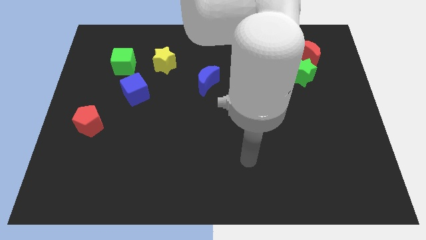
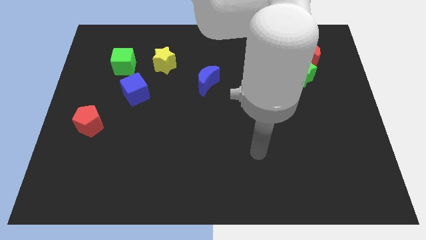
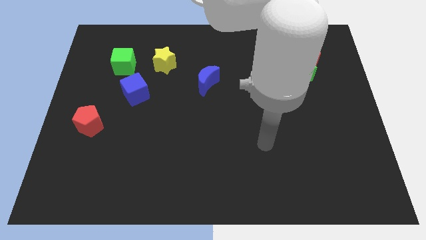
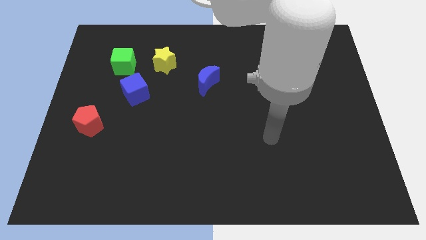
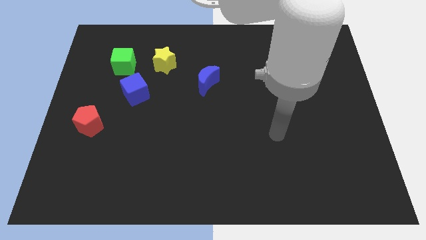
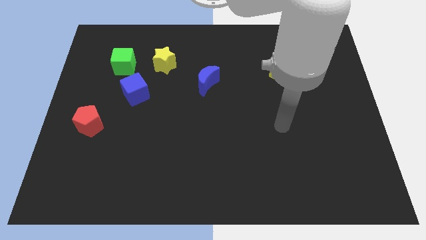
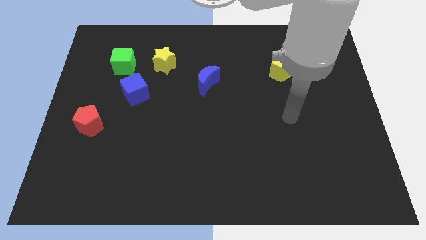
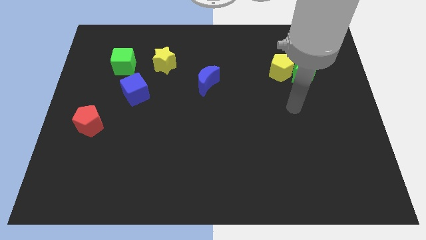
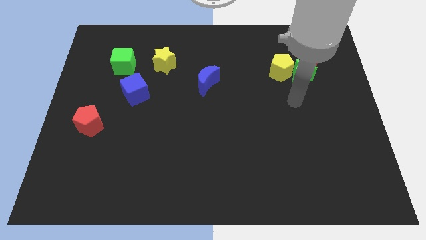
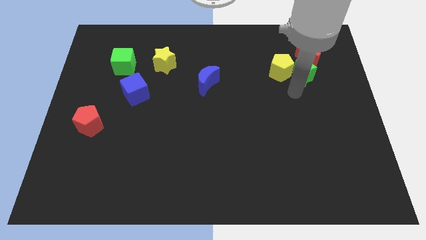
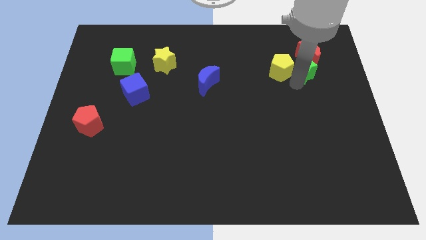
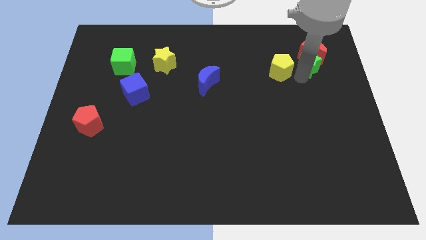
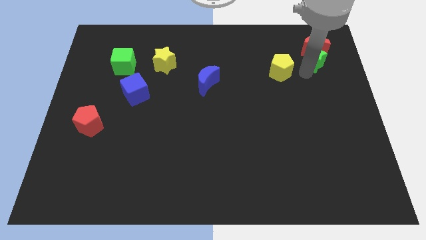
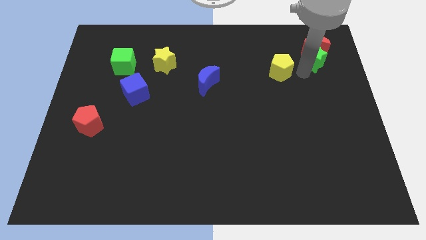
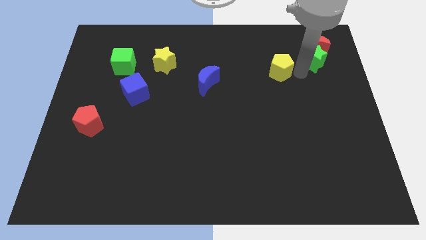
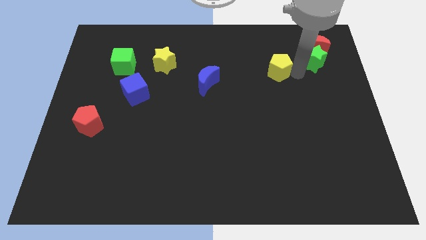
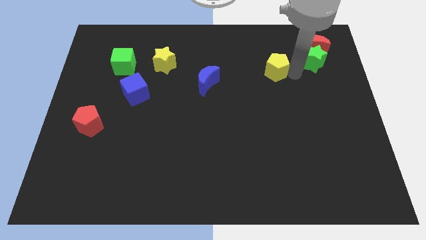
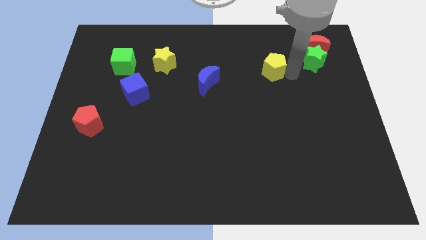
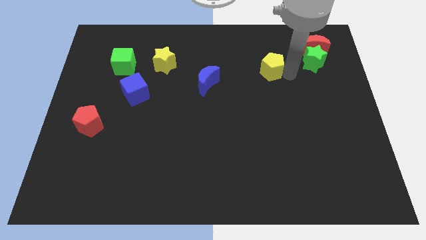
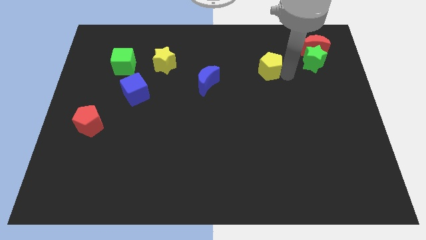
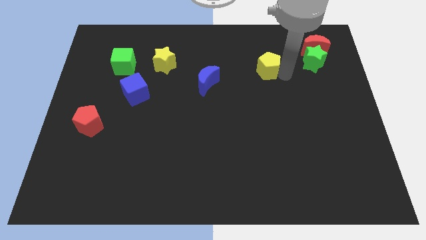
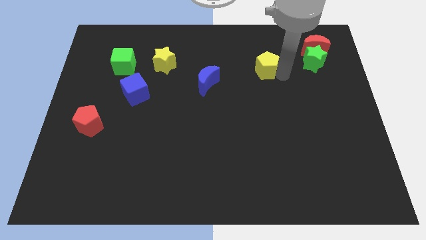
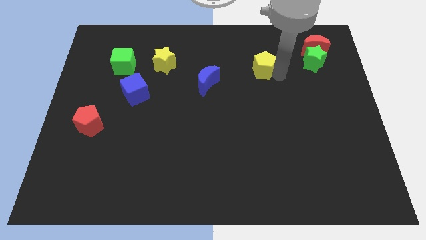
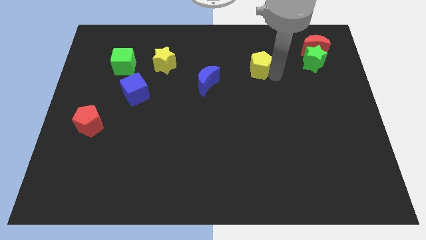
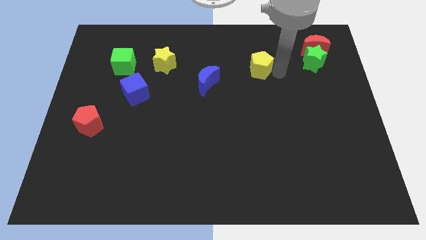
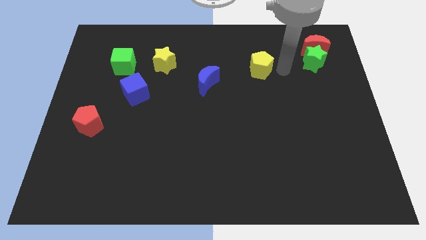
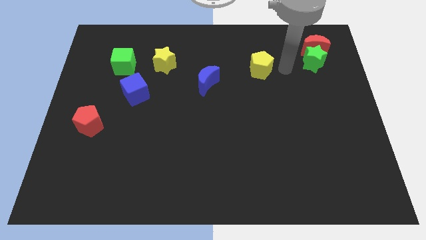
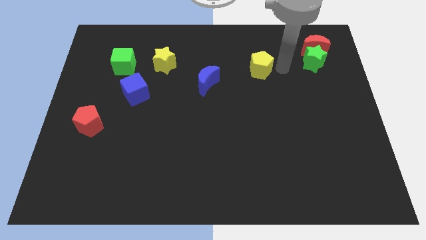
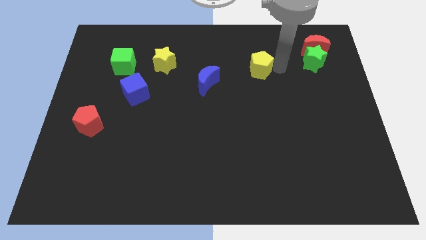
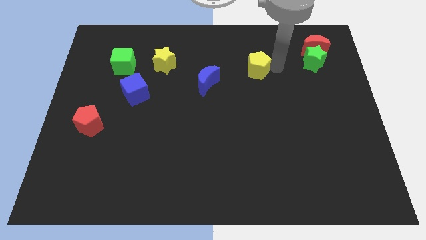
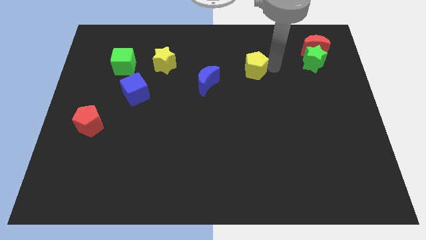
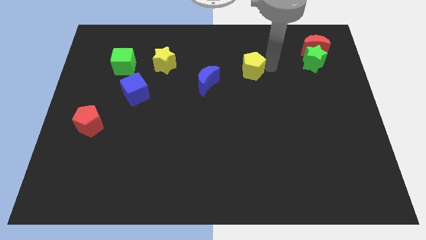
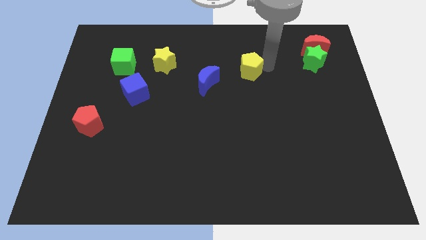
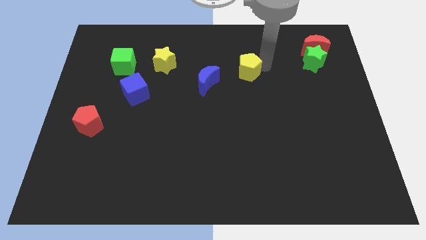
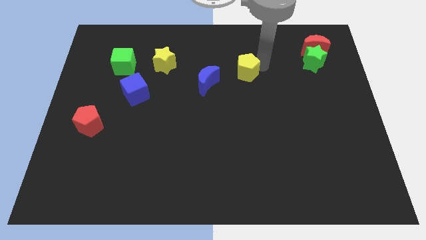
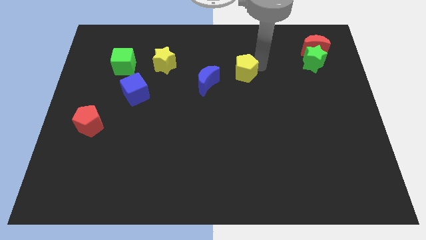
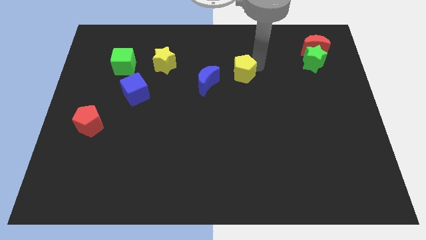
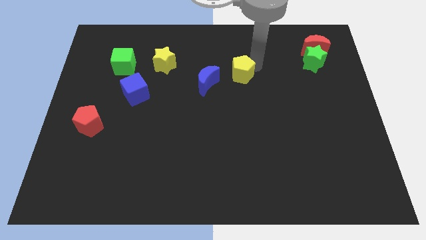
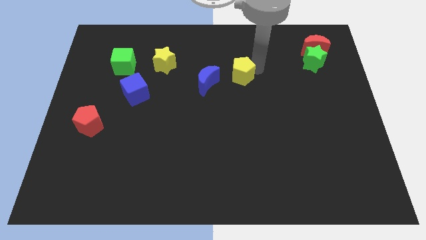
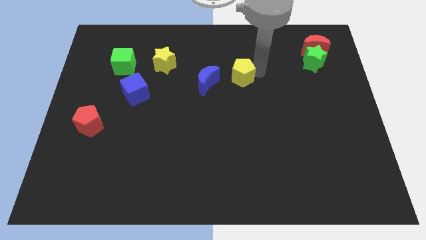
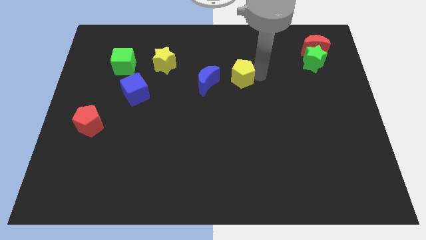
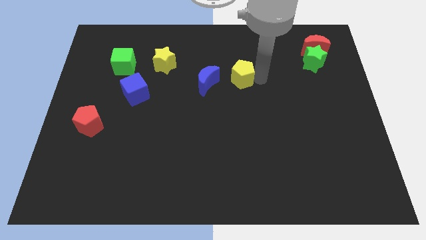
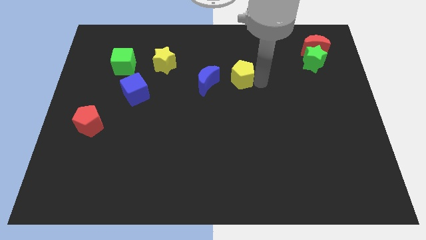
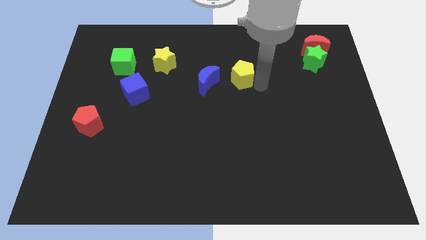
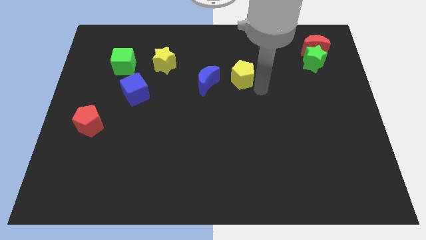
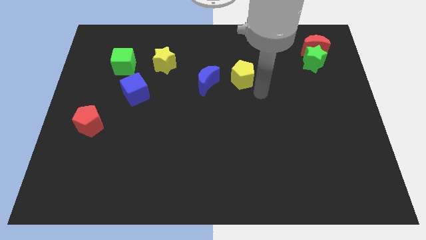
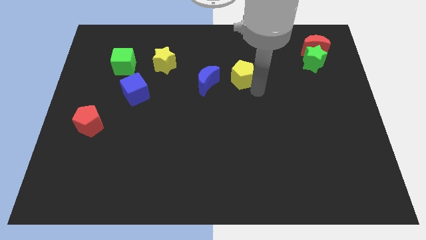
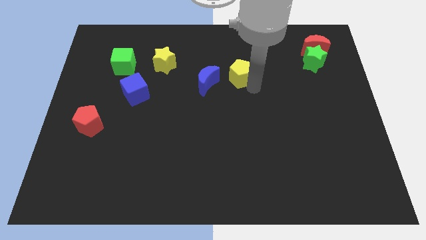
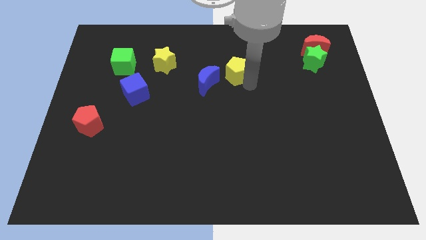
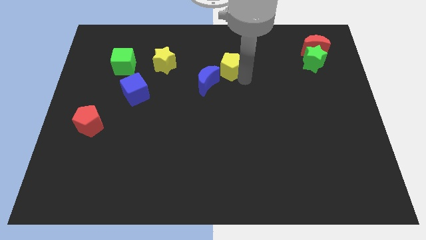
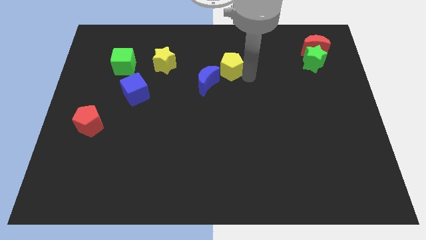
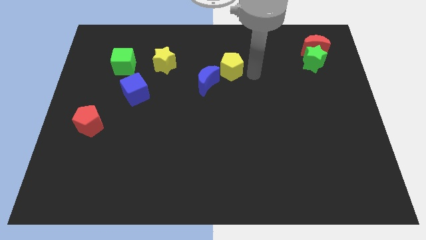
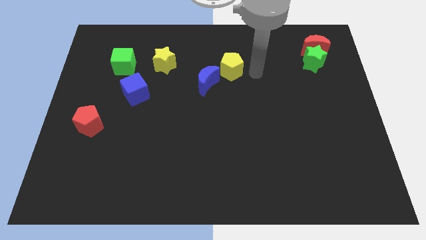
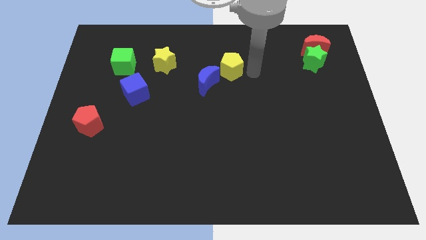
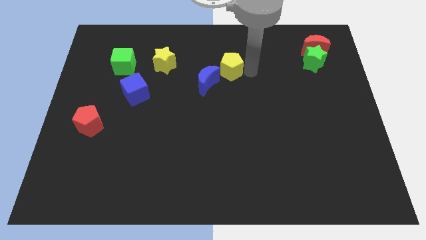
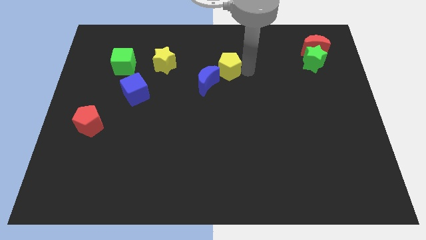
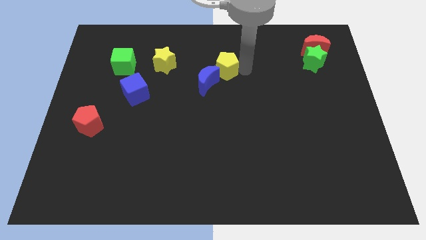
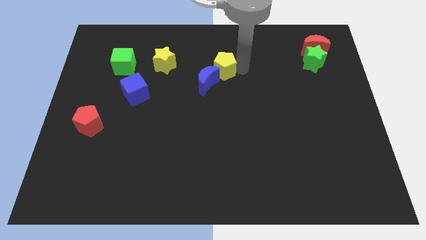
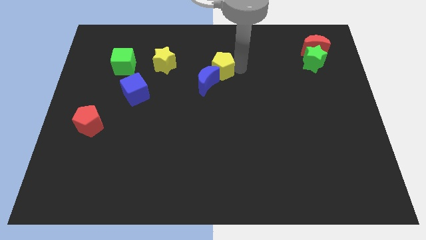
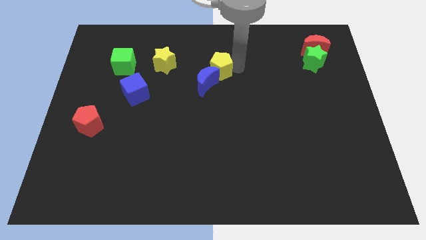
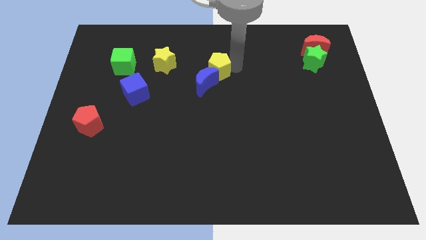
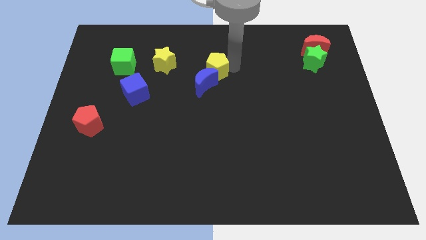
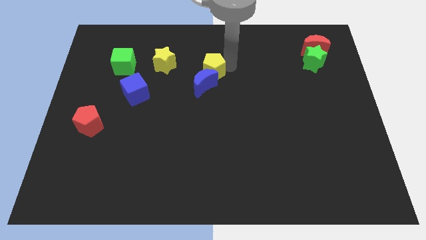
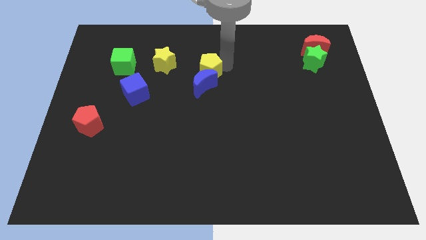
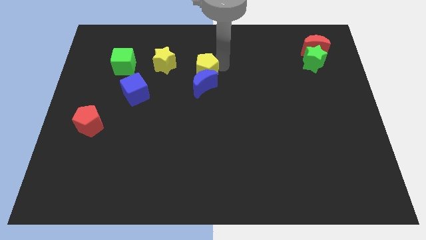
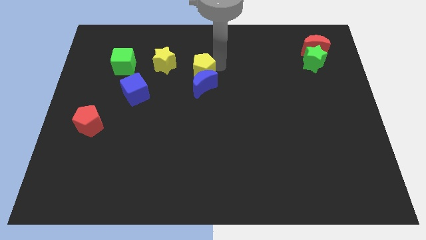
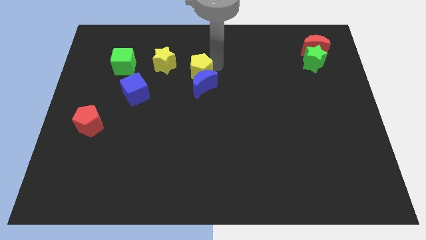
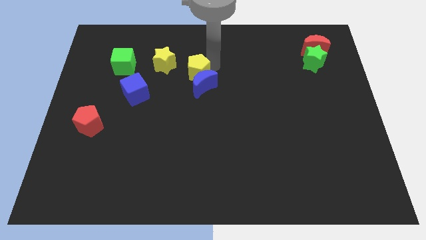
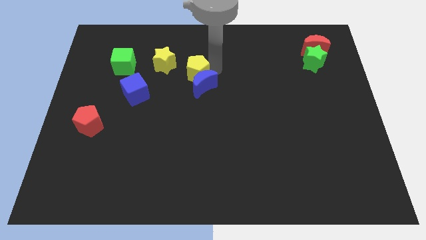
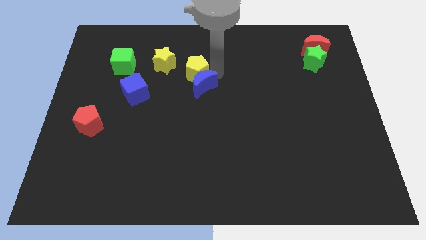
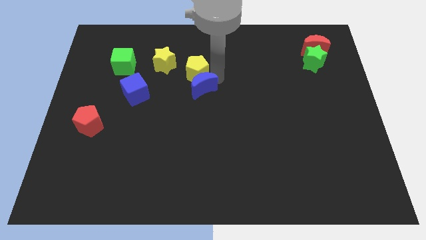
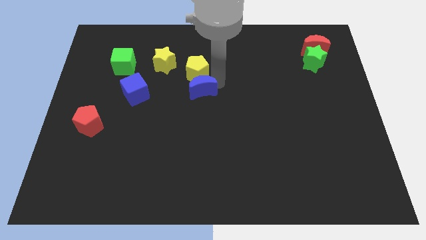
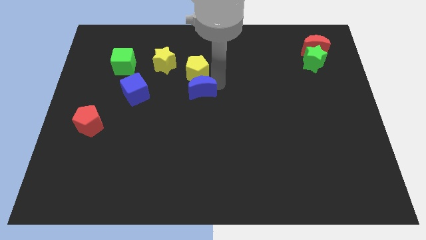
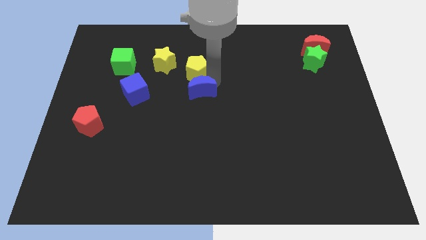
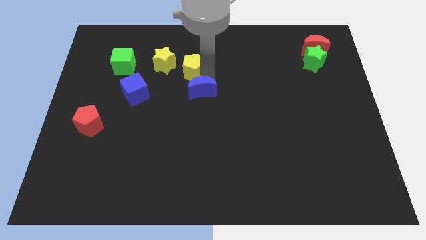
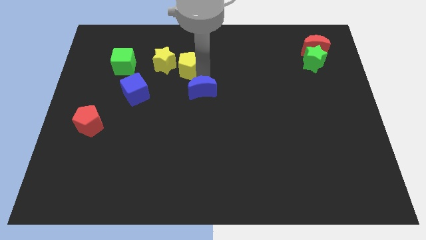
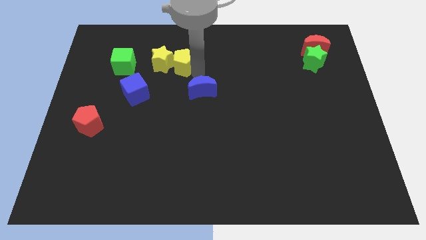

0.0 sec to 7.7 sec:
push the yellow pentagon just right of the green cube

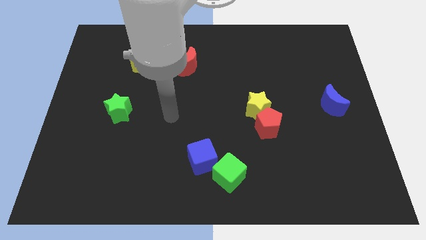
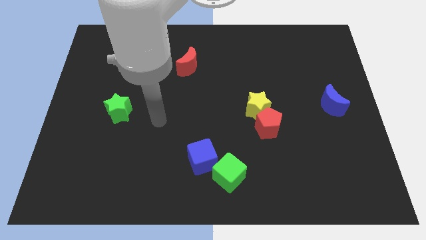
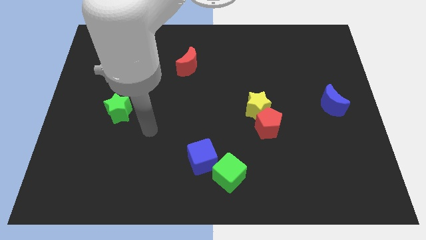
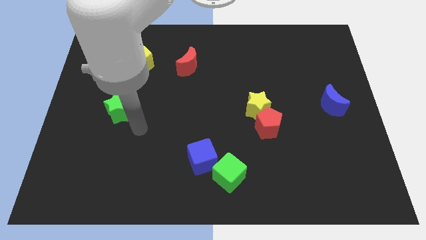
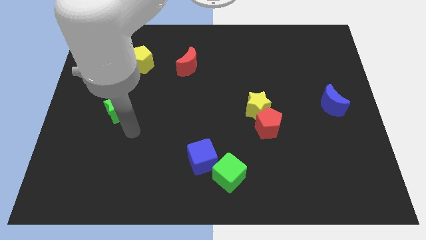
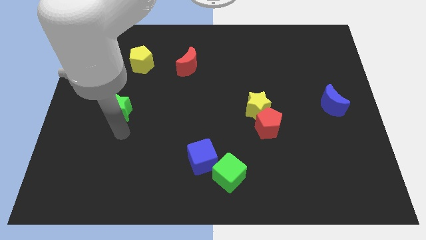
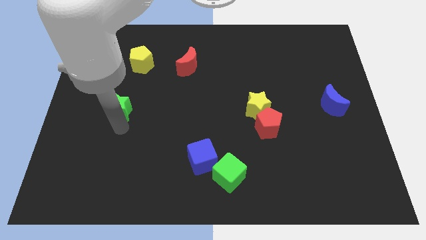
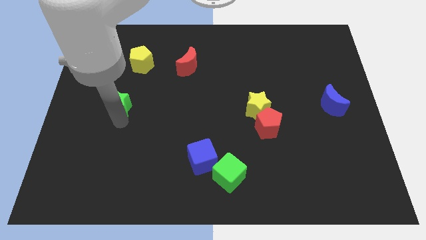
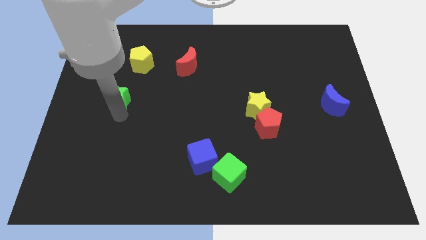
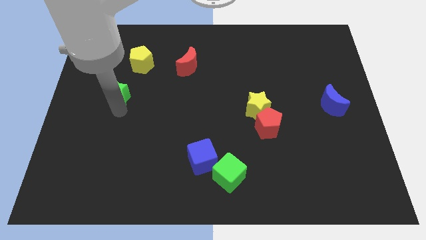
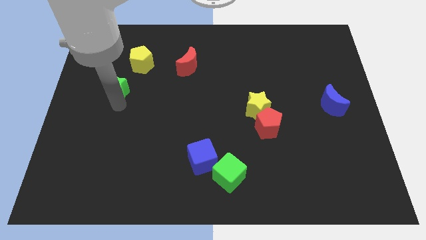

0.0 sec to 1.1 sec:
push the green star to the bottom left of the yellow pentagon
